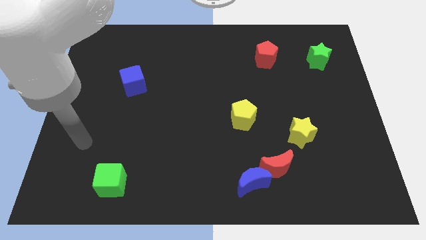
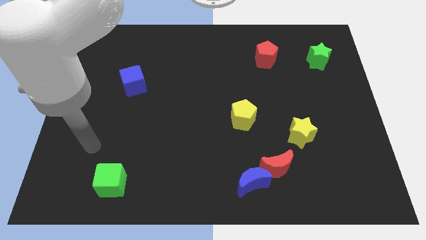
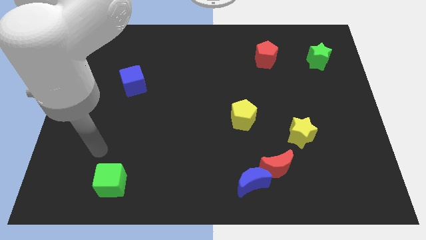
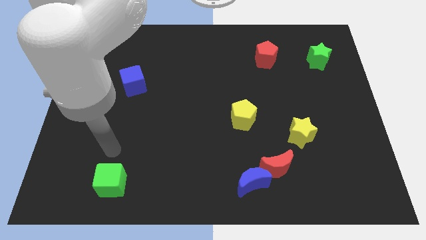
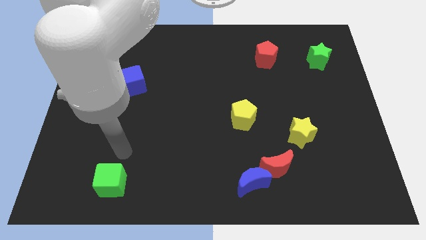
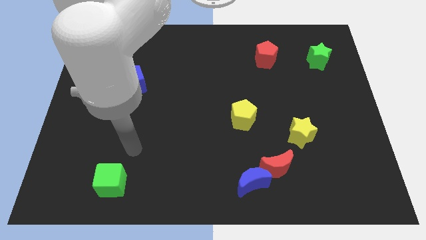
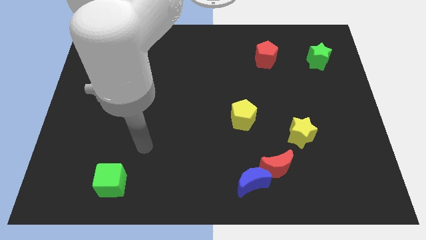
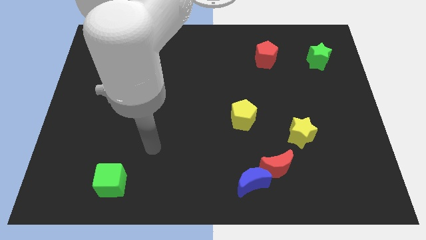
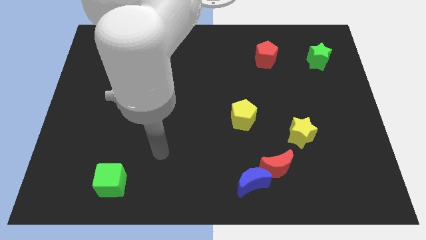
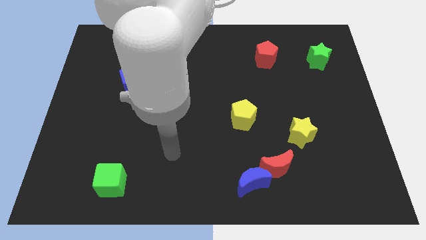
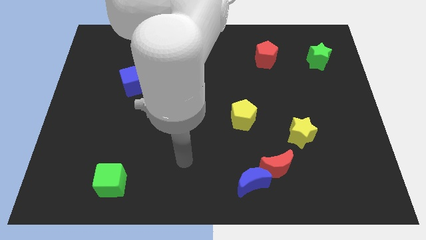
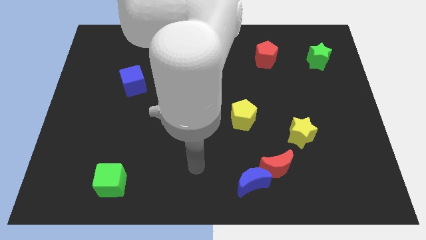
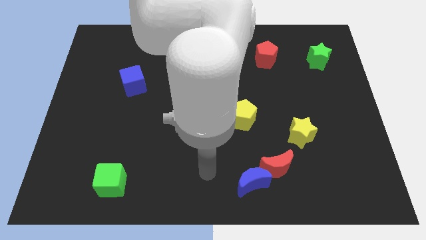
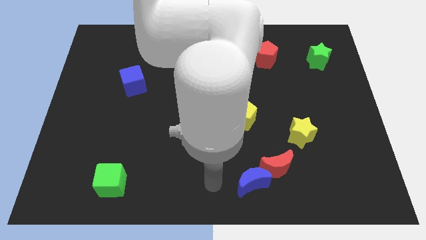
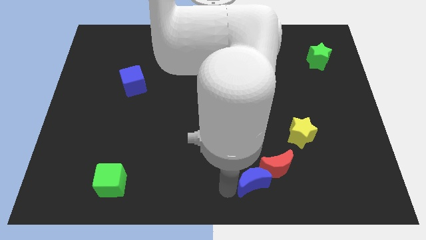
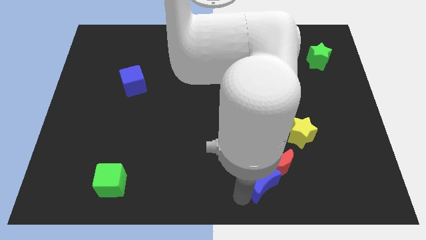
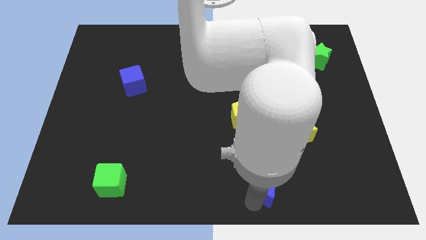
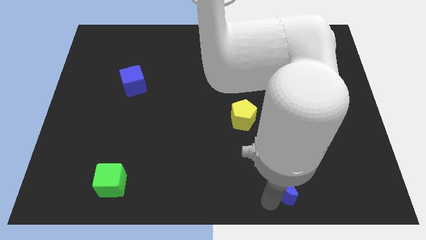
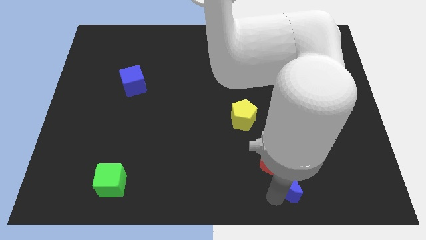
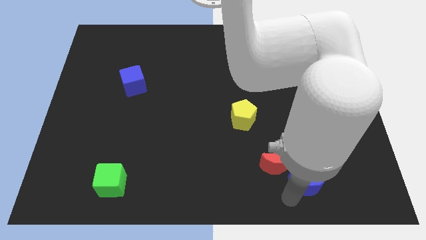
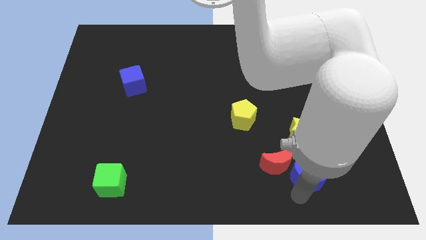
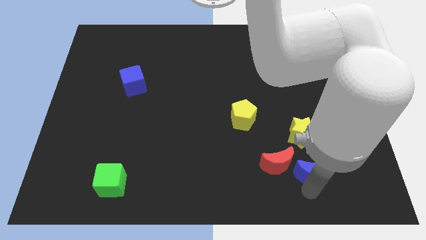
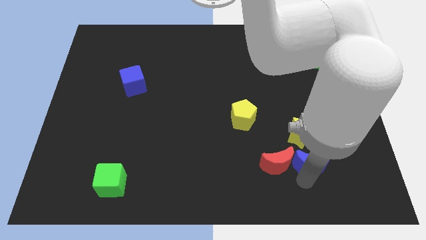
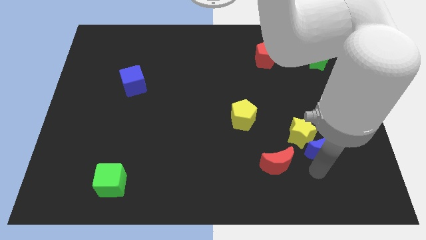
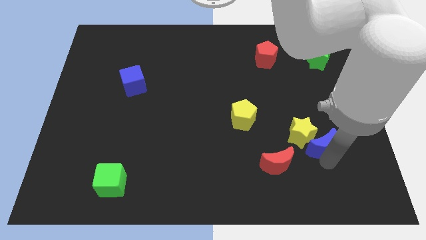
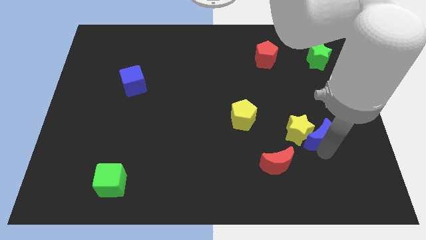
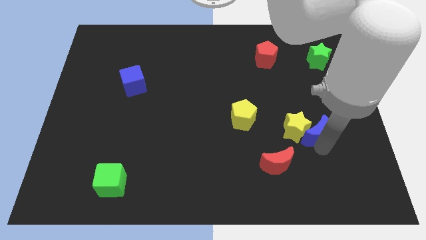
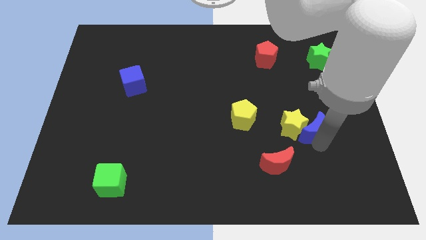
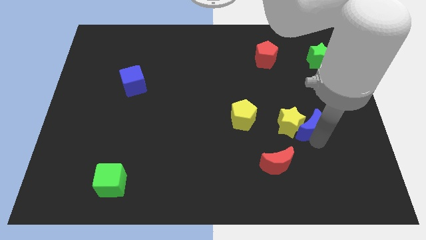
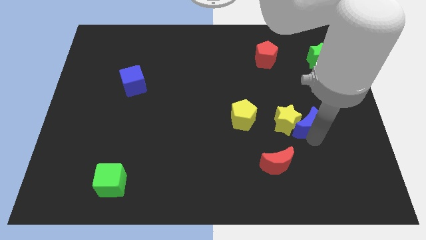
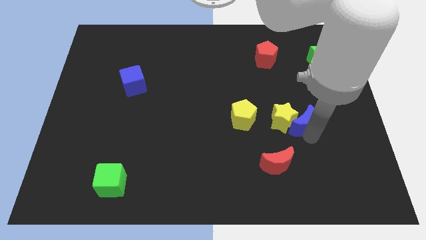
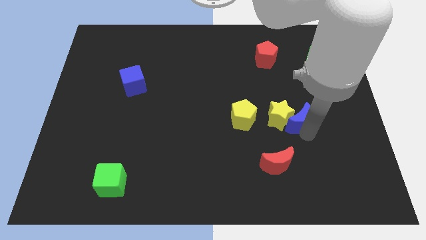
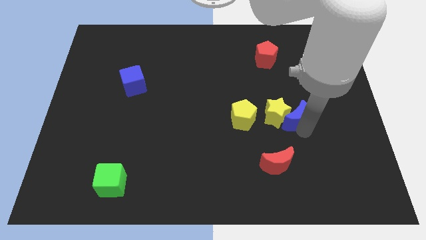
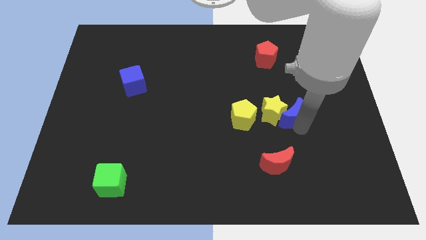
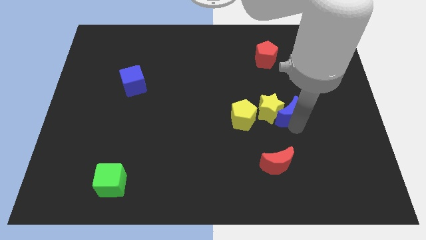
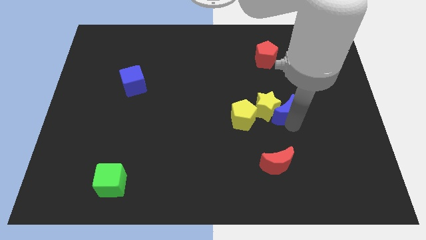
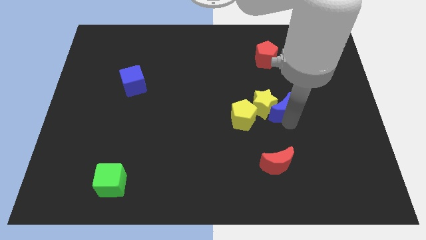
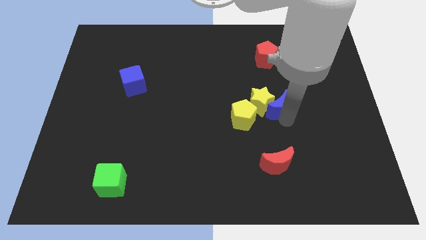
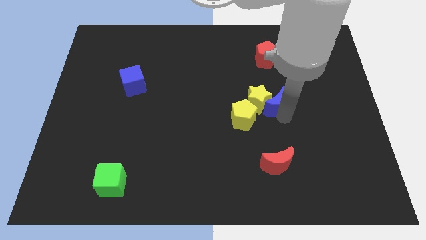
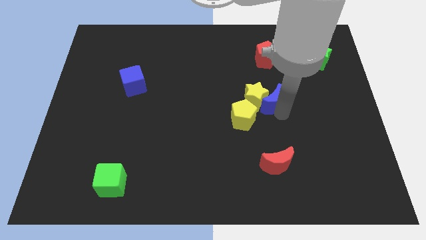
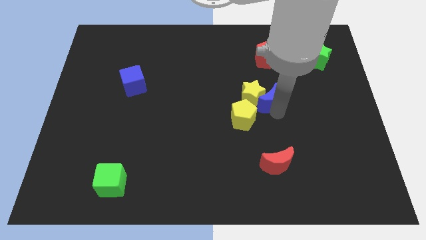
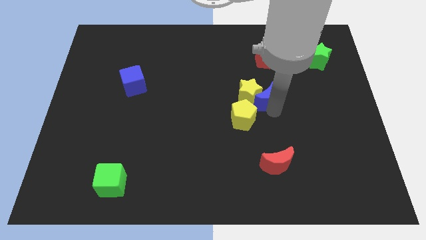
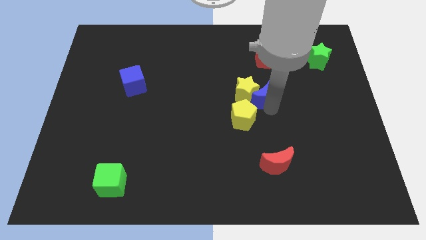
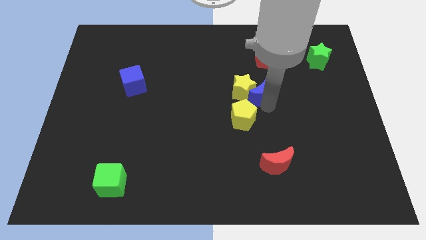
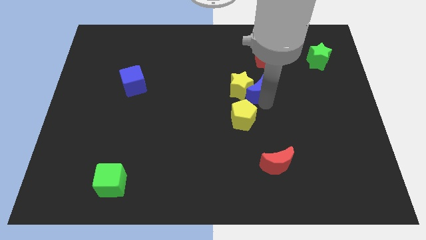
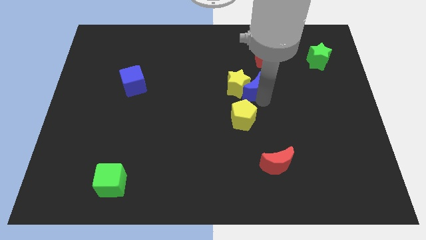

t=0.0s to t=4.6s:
push the yellow star up and to the left

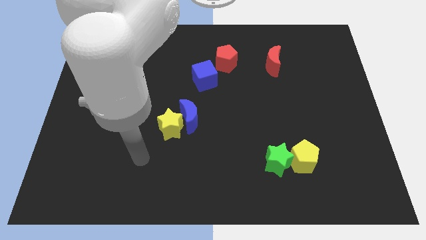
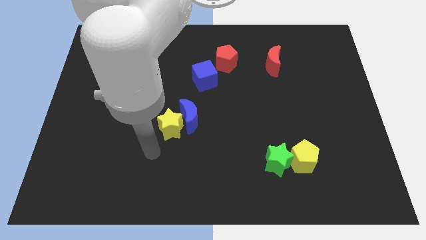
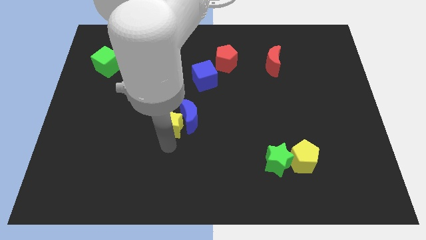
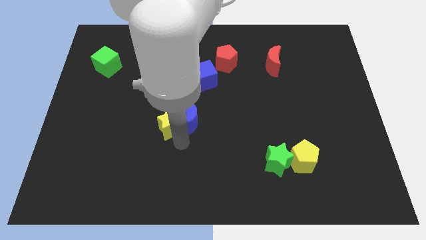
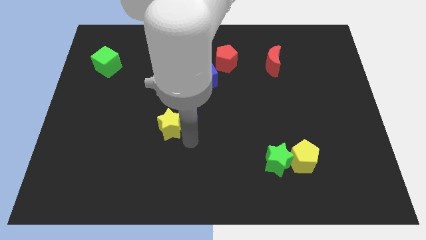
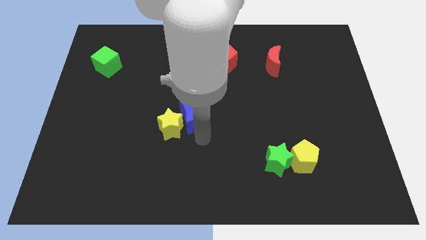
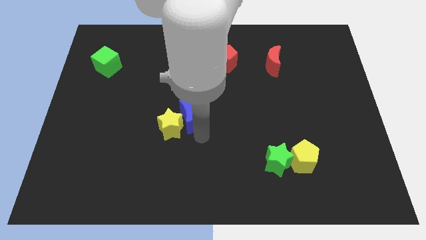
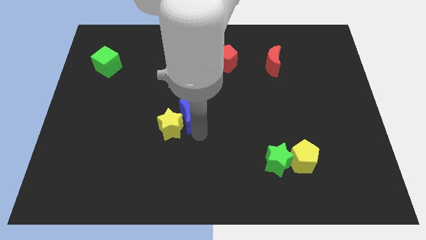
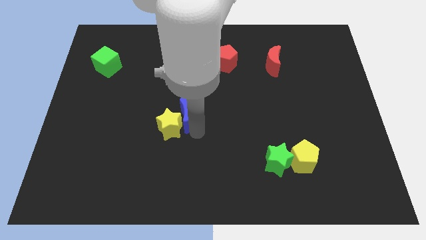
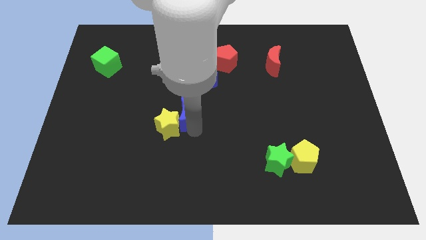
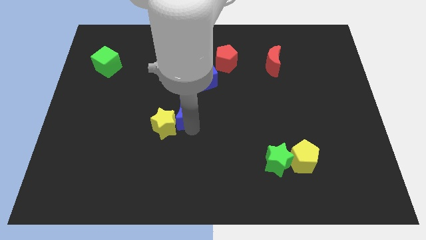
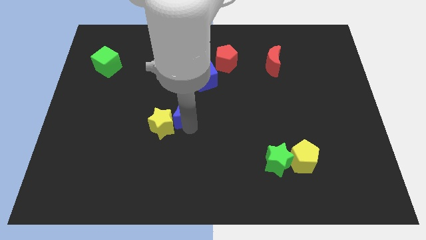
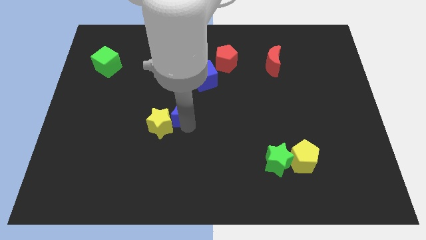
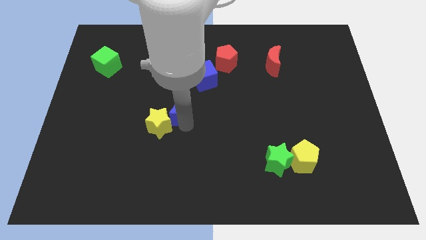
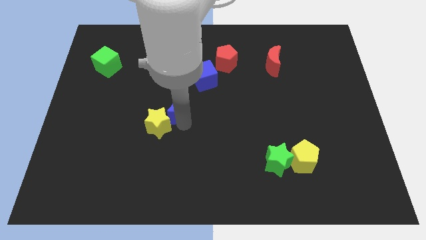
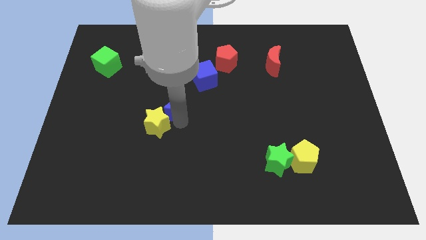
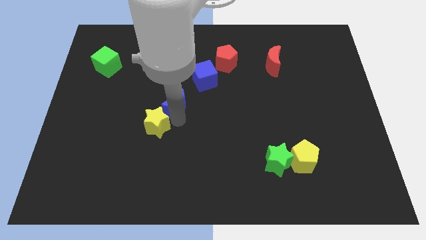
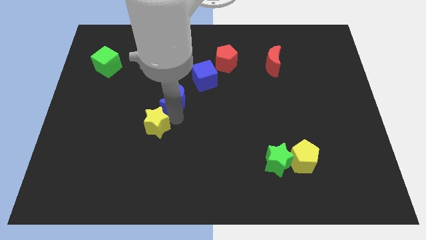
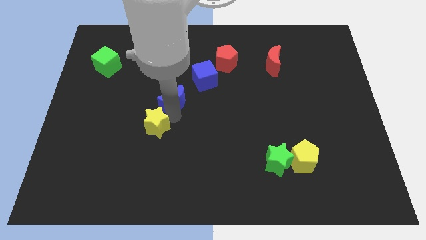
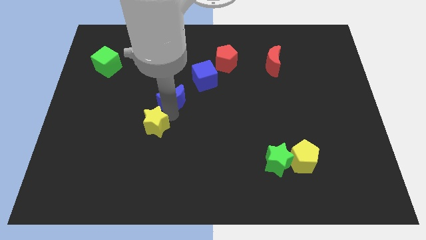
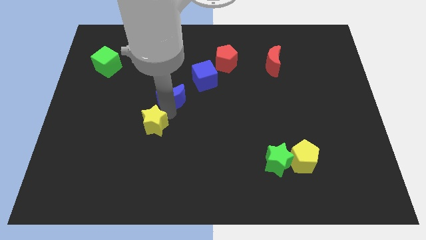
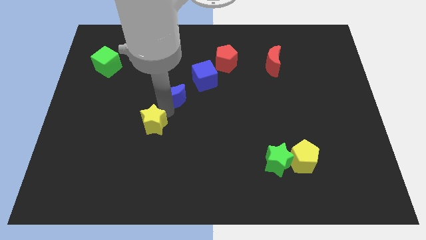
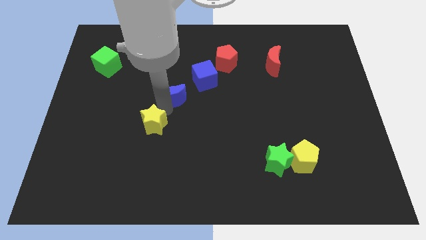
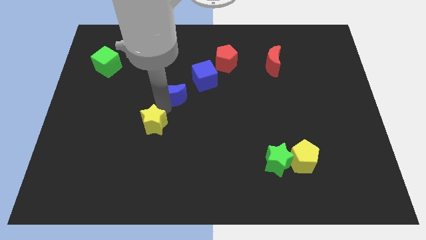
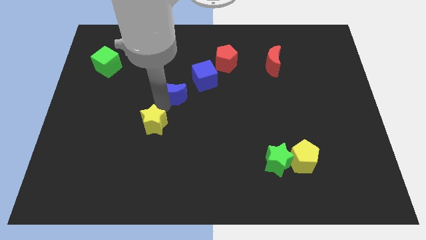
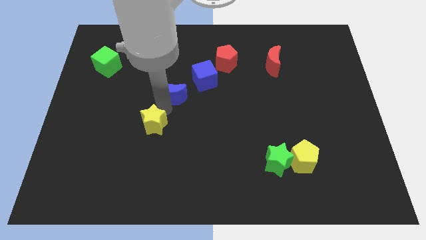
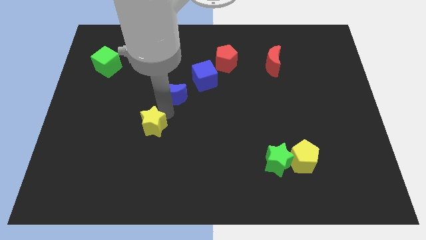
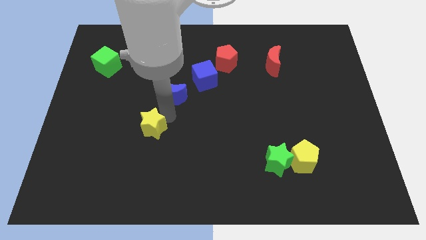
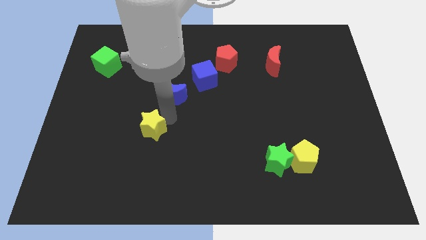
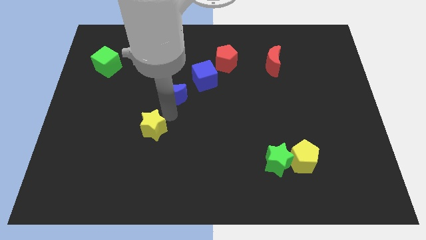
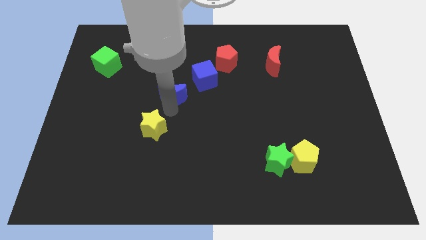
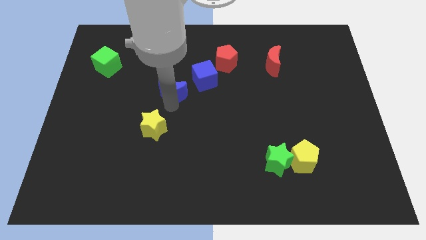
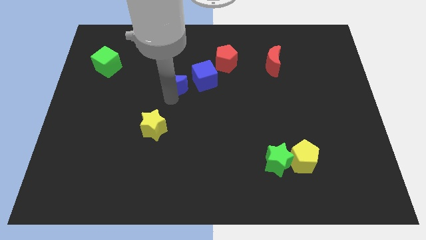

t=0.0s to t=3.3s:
move the blue moon a little upwards

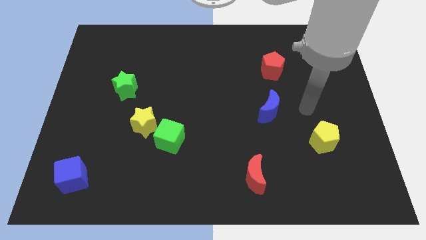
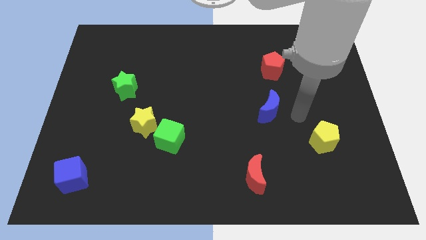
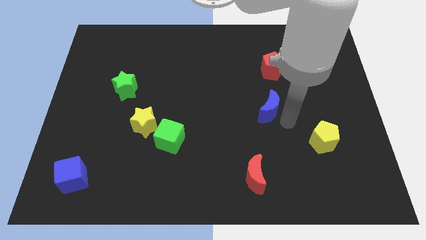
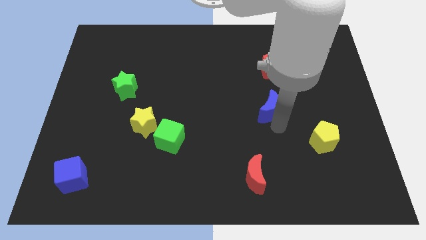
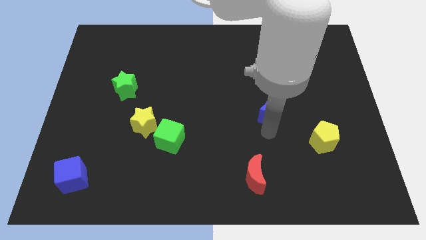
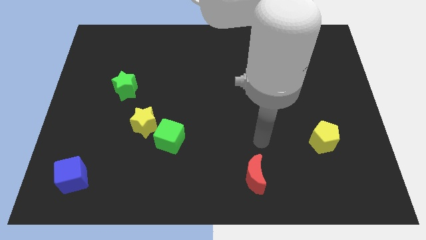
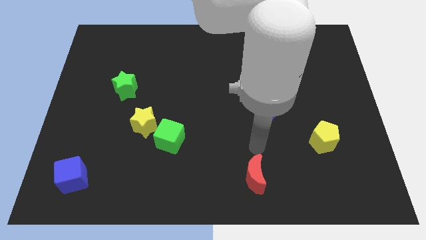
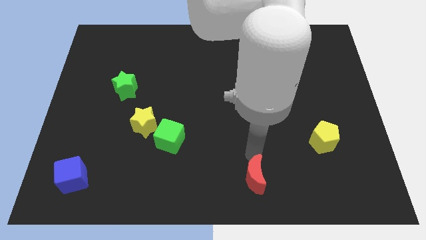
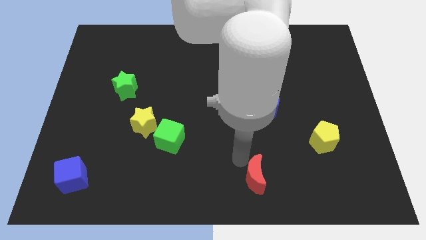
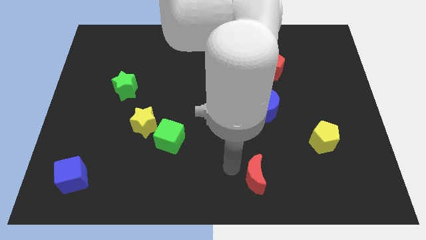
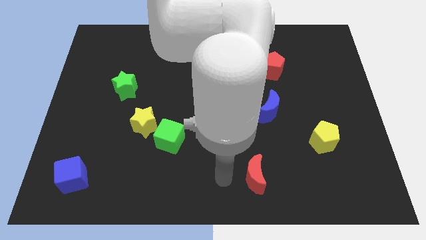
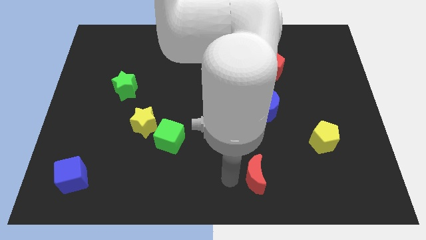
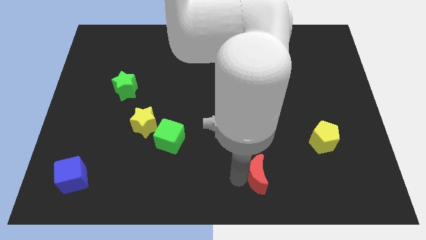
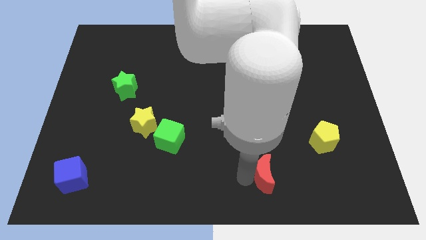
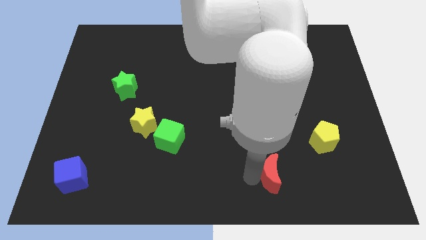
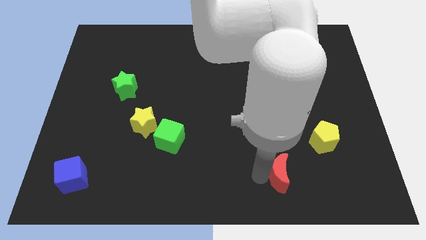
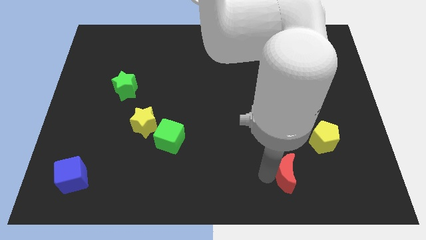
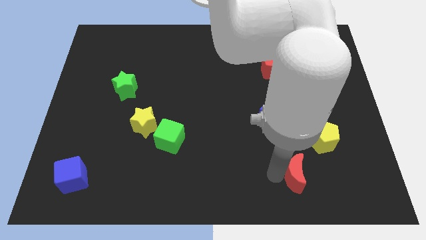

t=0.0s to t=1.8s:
move the red moon slightly right
